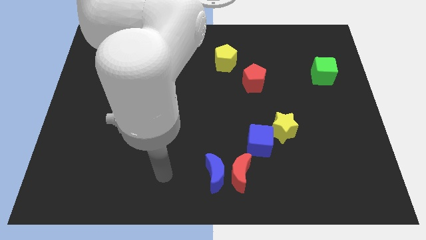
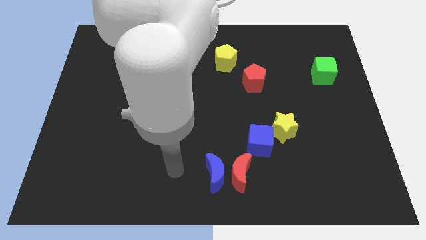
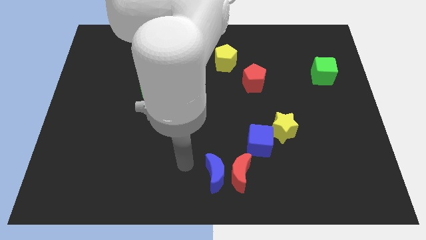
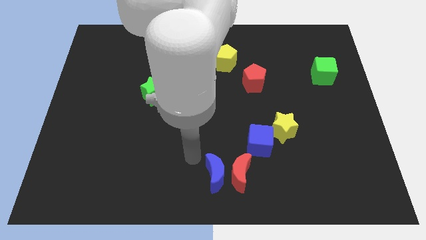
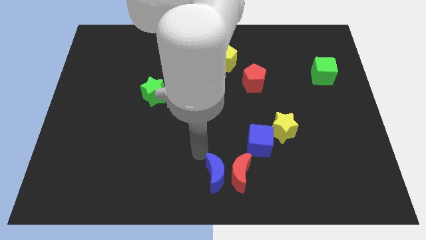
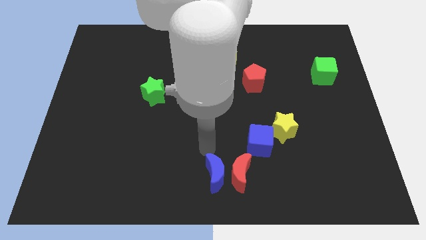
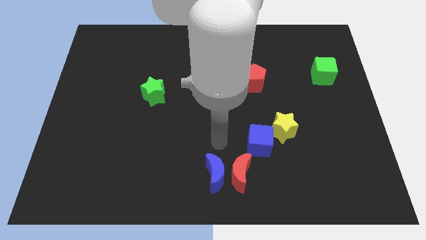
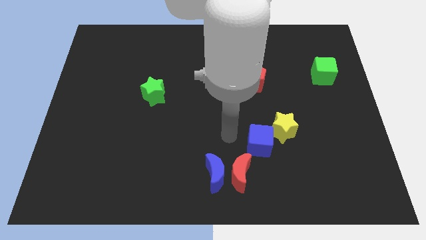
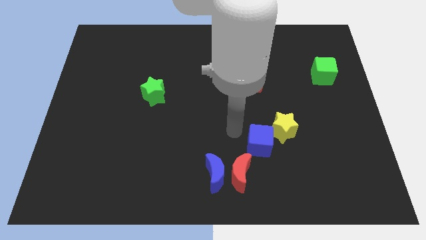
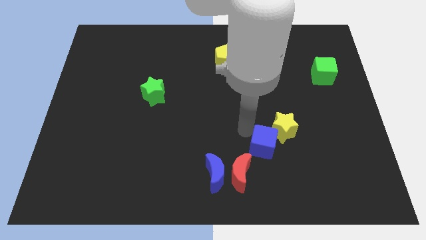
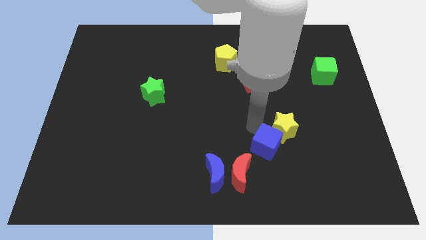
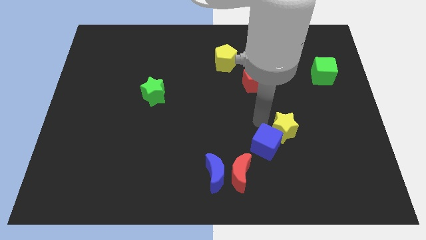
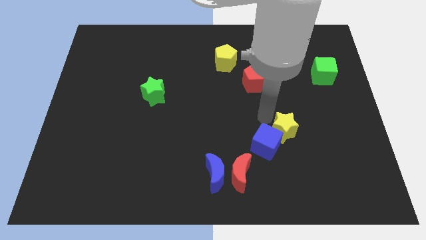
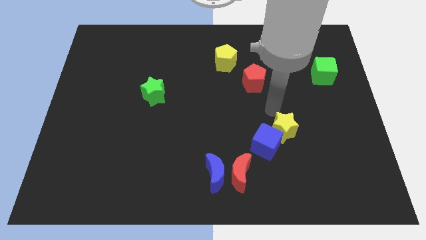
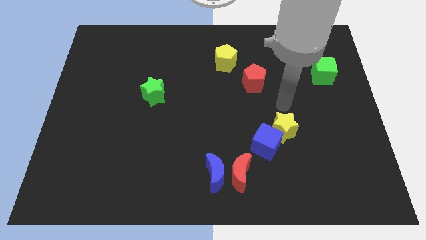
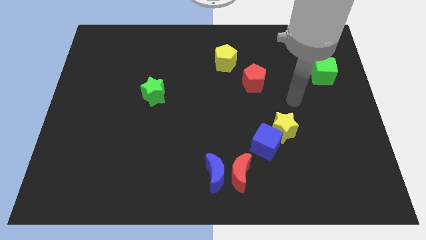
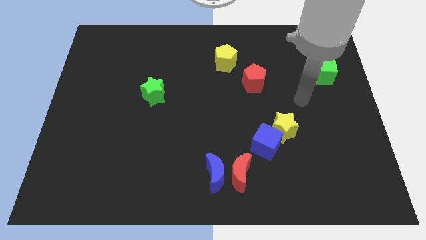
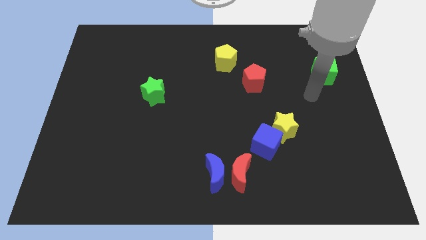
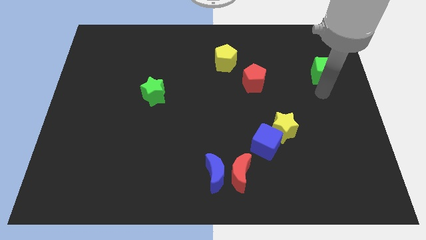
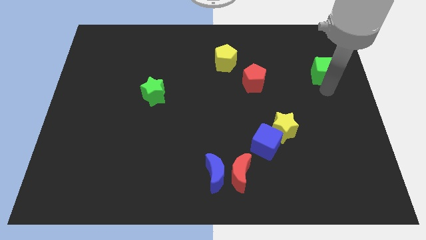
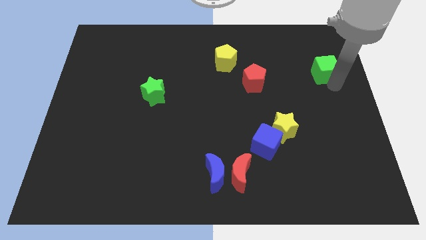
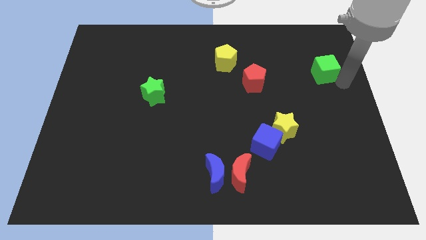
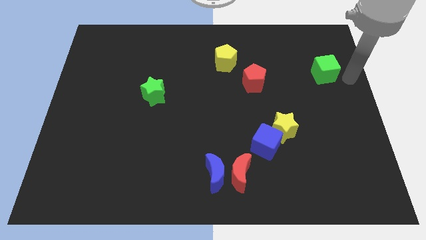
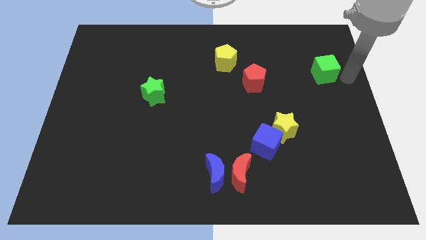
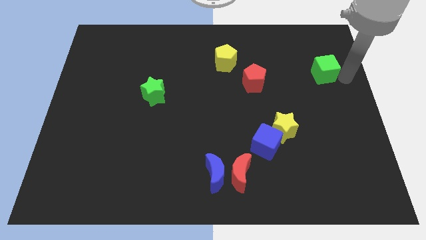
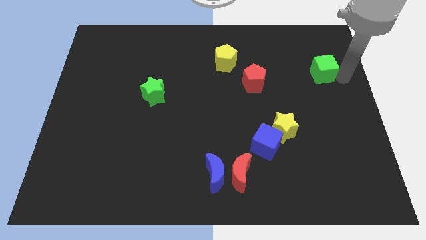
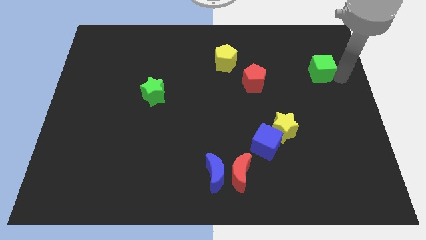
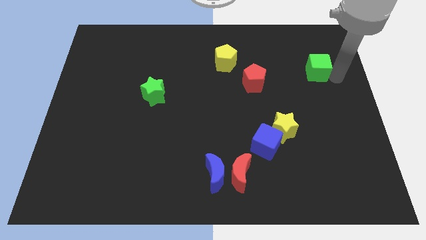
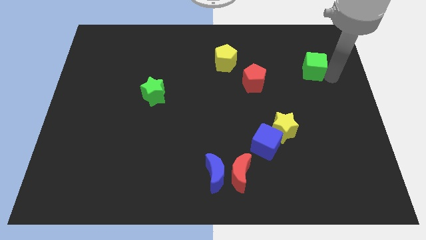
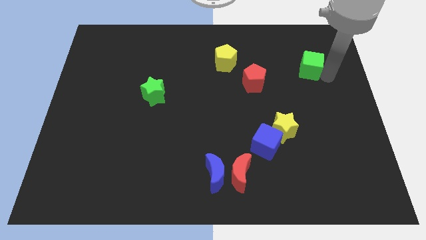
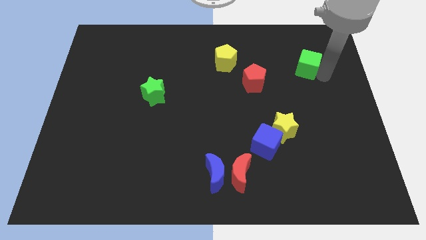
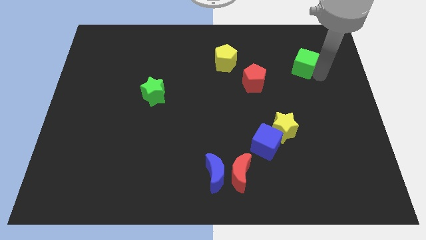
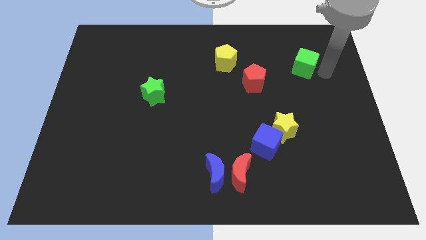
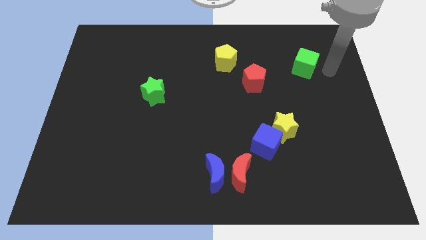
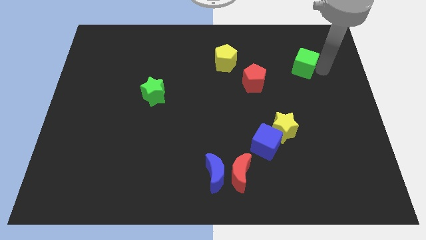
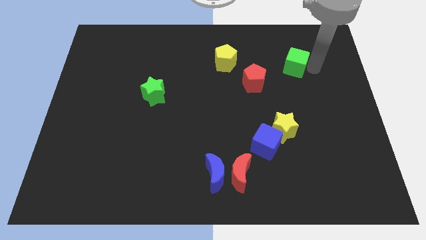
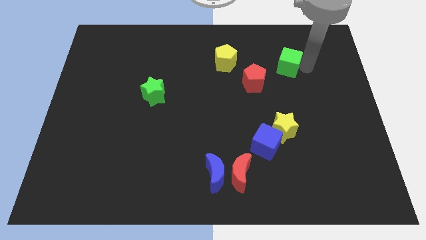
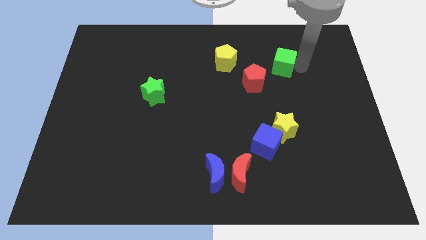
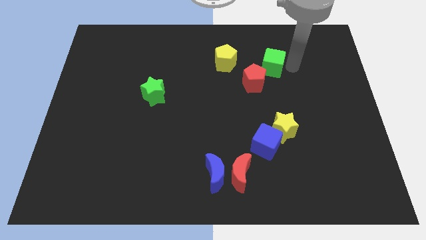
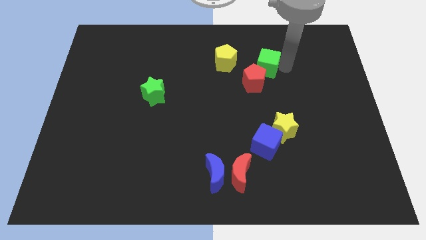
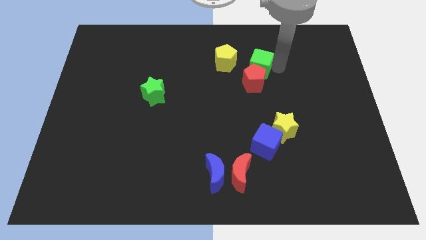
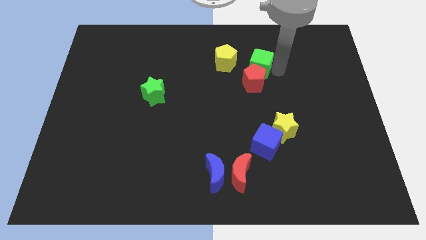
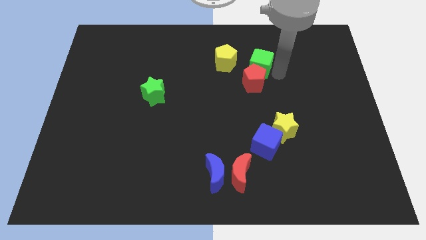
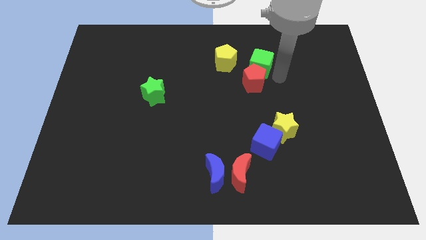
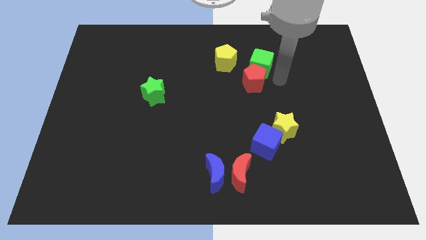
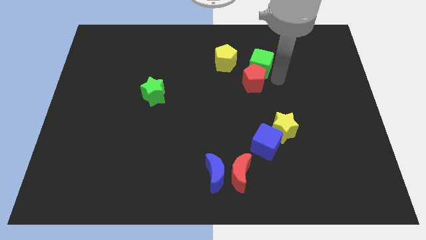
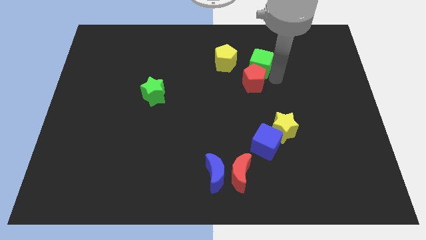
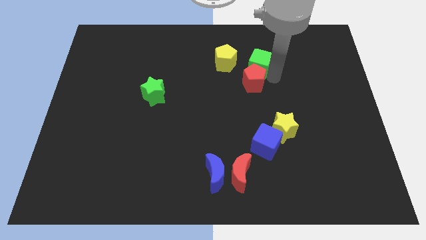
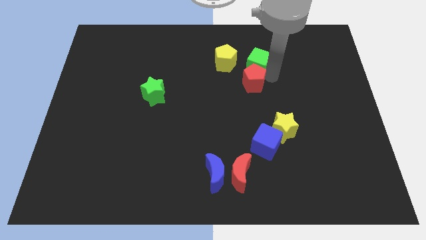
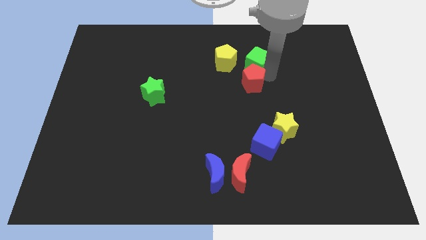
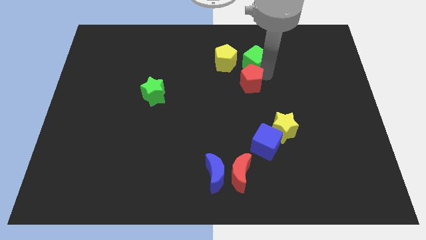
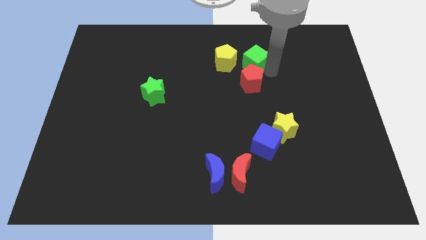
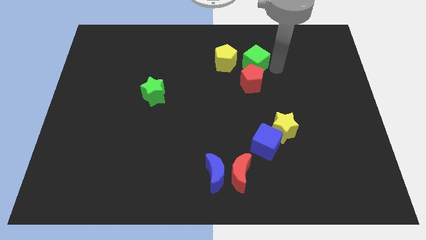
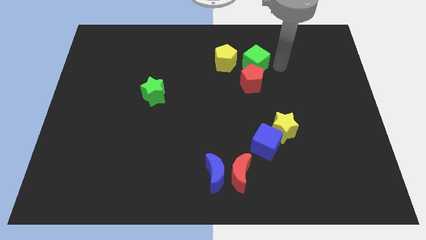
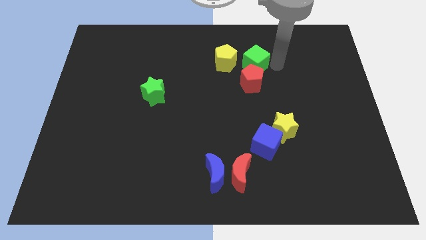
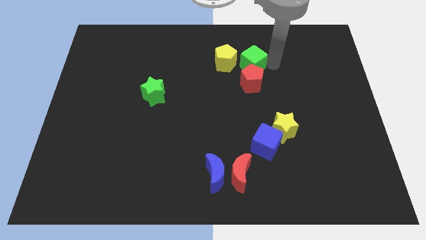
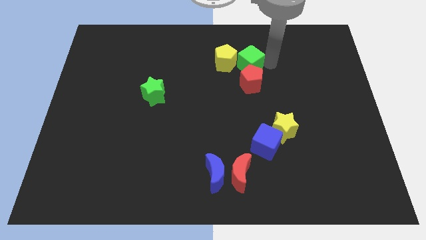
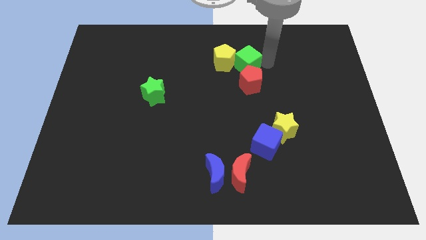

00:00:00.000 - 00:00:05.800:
move the green cube close to the yellow pentagon
